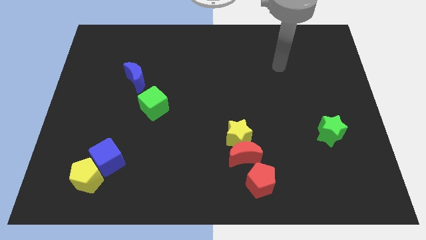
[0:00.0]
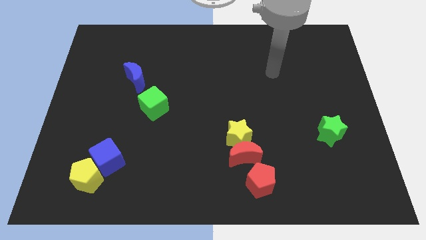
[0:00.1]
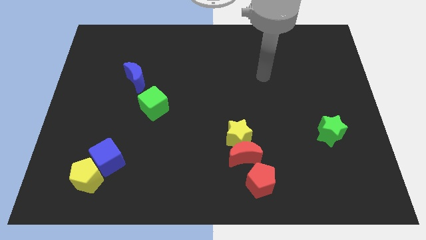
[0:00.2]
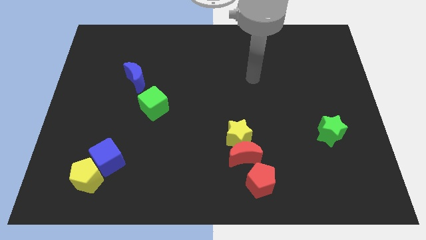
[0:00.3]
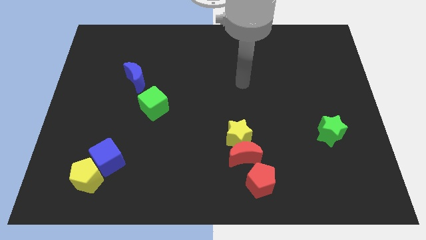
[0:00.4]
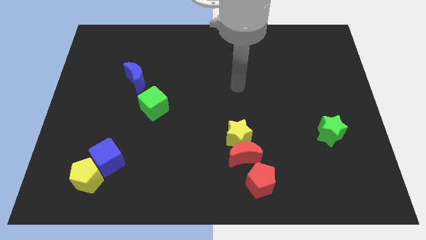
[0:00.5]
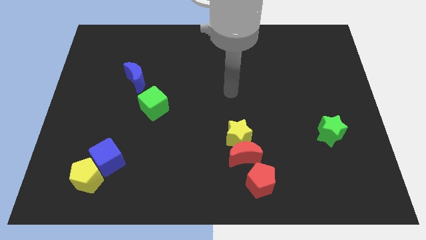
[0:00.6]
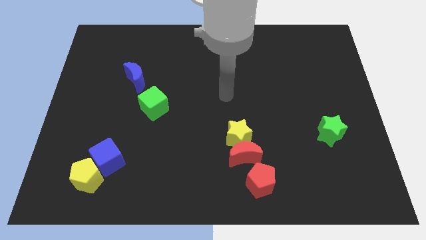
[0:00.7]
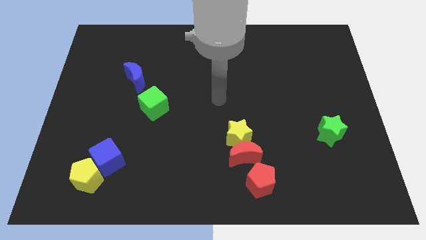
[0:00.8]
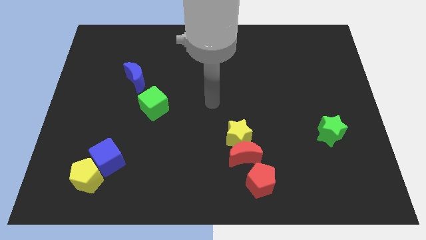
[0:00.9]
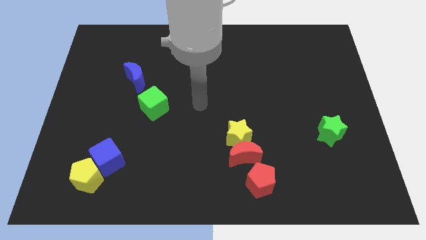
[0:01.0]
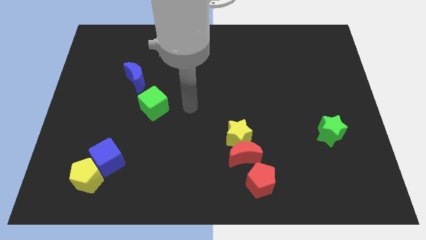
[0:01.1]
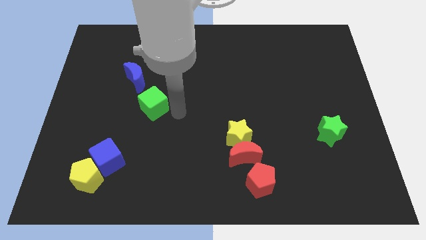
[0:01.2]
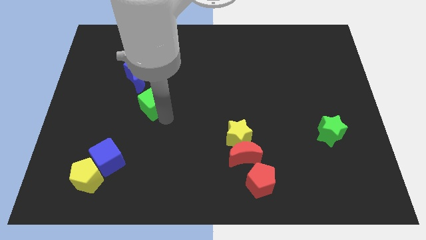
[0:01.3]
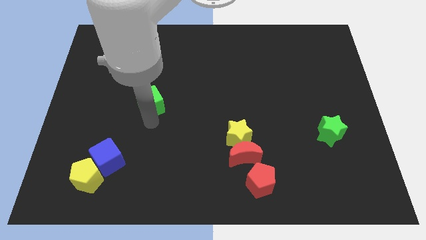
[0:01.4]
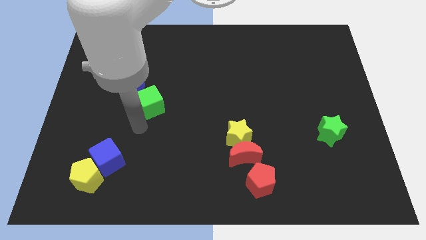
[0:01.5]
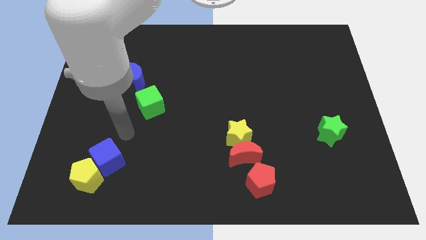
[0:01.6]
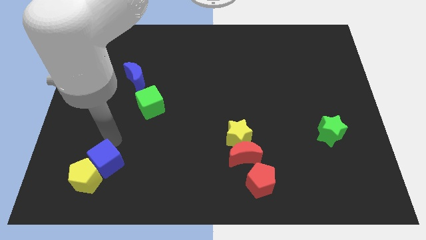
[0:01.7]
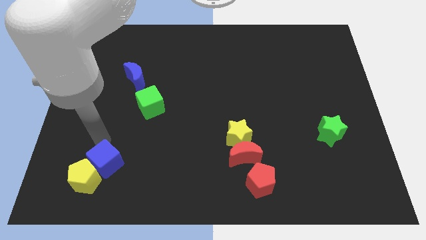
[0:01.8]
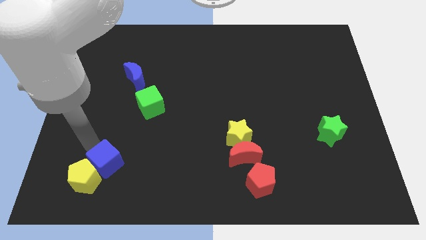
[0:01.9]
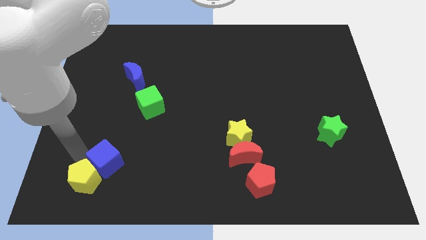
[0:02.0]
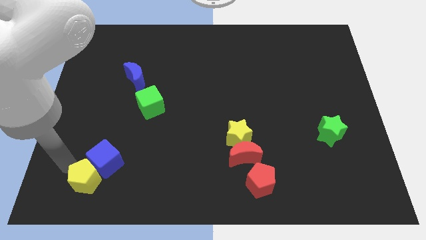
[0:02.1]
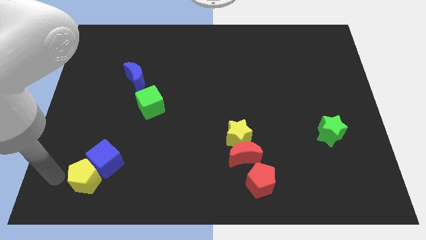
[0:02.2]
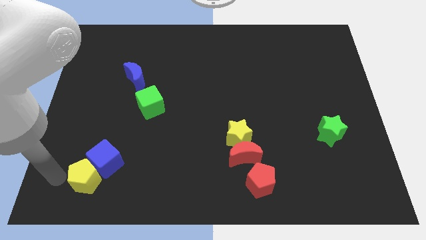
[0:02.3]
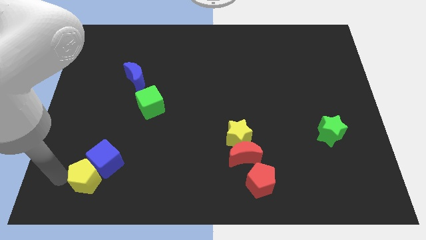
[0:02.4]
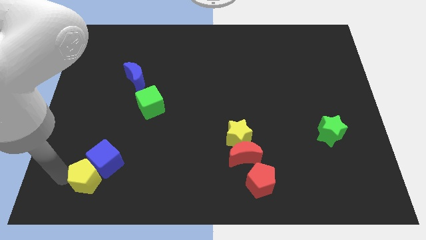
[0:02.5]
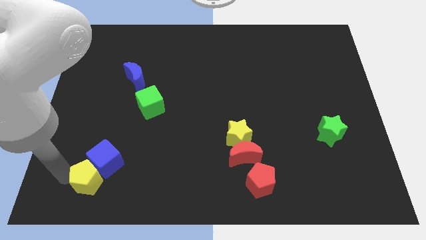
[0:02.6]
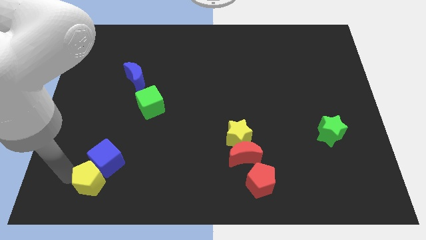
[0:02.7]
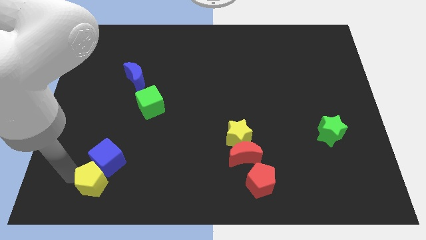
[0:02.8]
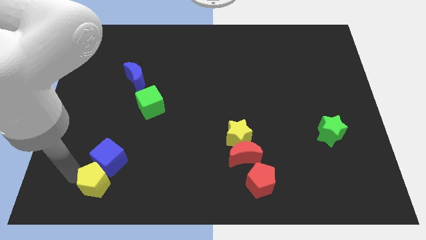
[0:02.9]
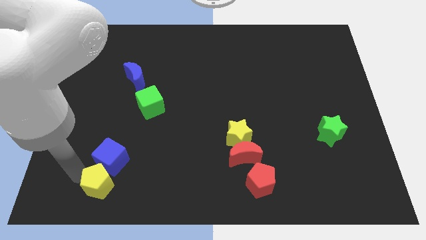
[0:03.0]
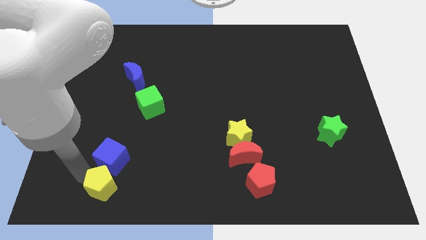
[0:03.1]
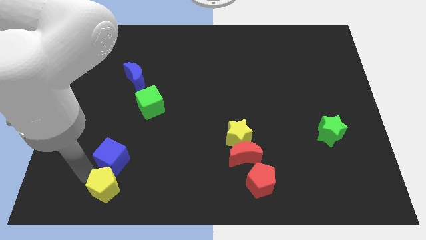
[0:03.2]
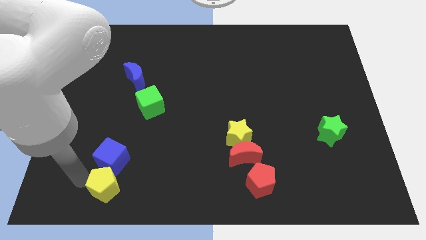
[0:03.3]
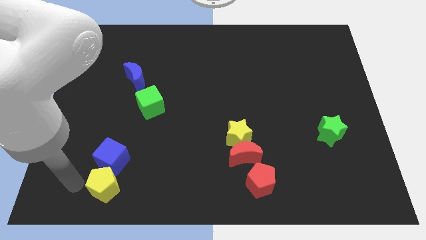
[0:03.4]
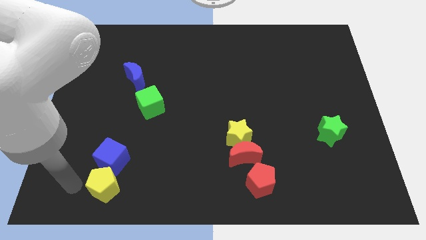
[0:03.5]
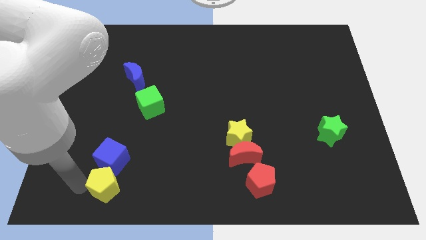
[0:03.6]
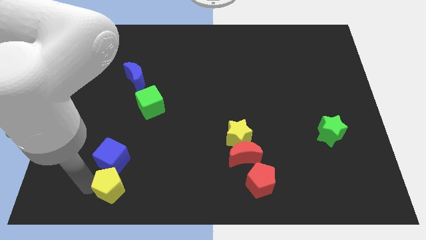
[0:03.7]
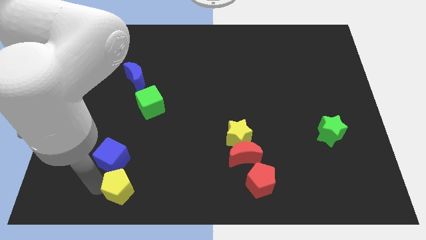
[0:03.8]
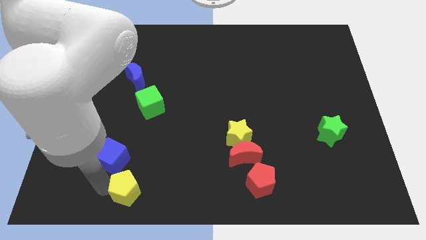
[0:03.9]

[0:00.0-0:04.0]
slightly push the yellow pentagon to the right

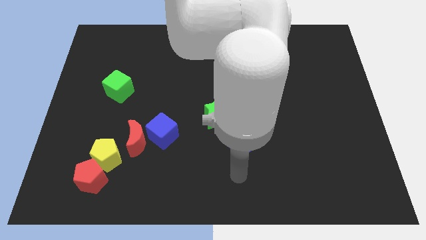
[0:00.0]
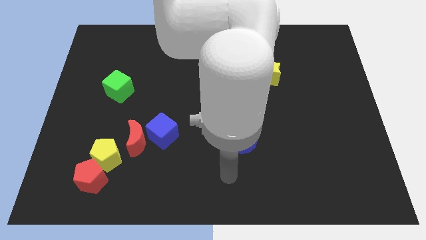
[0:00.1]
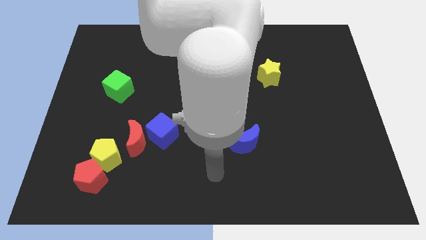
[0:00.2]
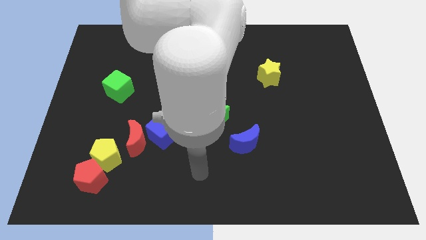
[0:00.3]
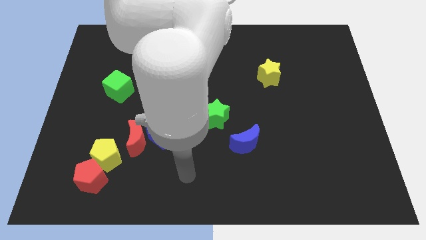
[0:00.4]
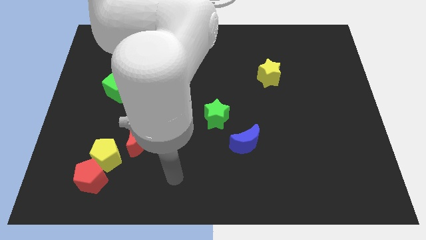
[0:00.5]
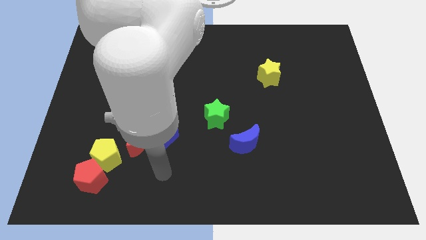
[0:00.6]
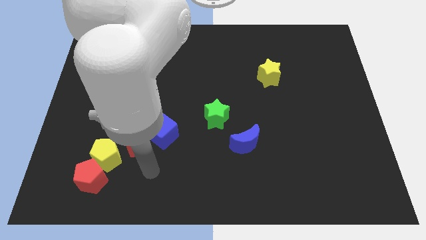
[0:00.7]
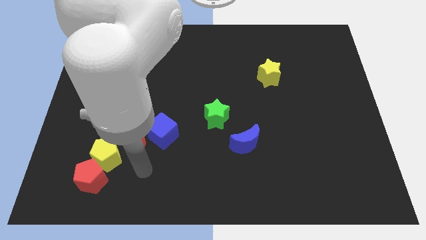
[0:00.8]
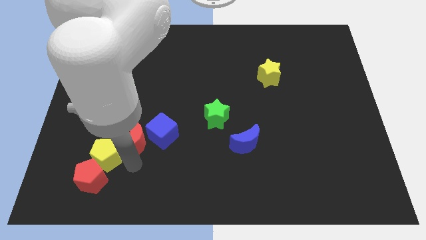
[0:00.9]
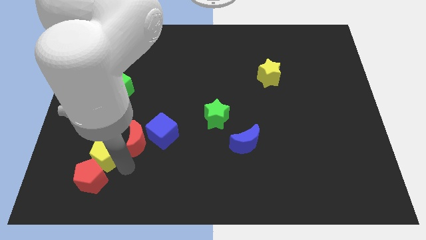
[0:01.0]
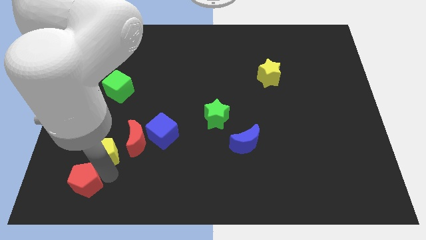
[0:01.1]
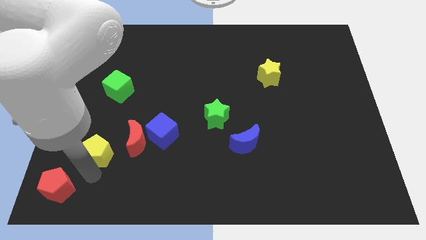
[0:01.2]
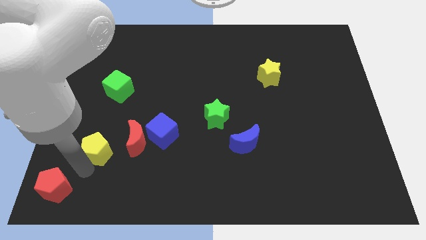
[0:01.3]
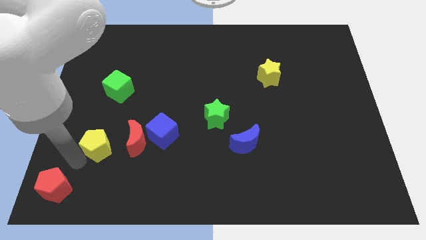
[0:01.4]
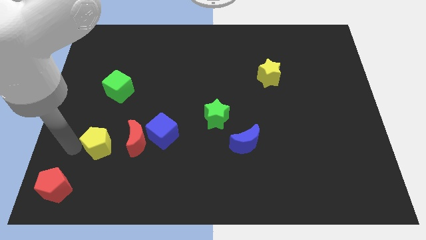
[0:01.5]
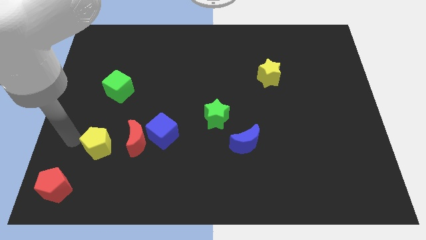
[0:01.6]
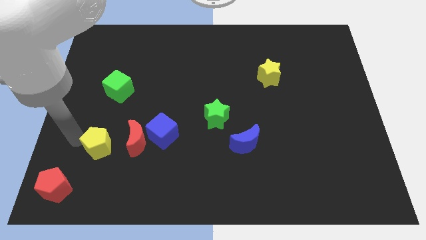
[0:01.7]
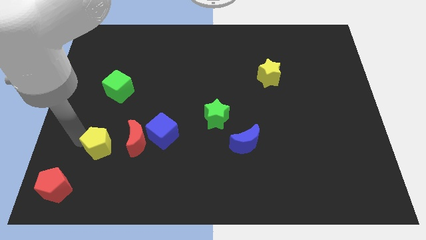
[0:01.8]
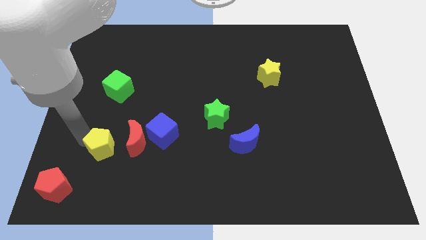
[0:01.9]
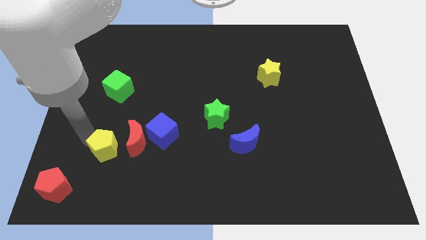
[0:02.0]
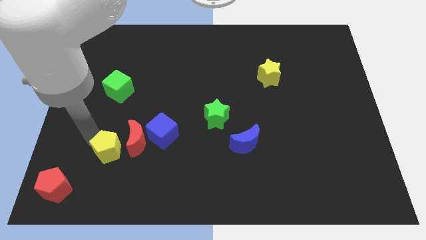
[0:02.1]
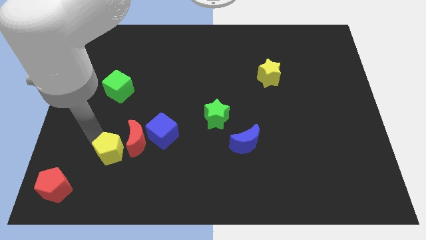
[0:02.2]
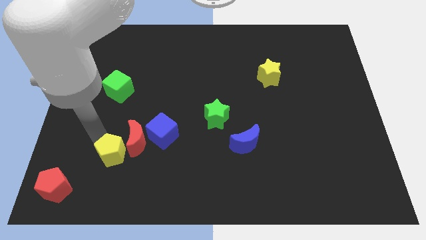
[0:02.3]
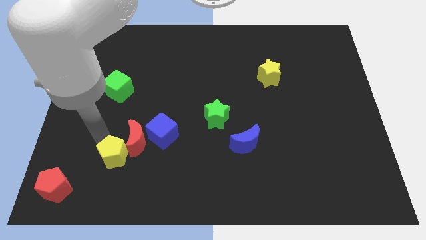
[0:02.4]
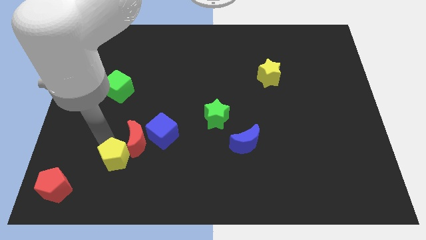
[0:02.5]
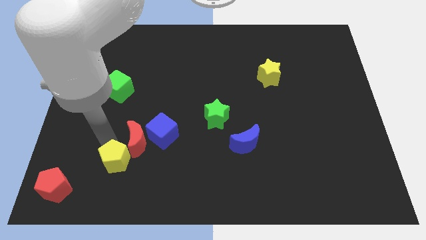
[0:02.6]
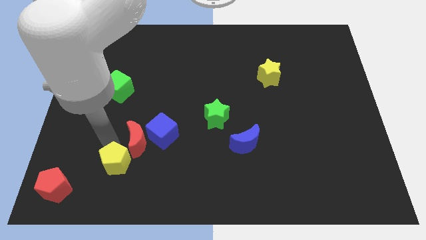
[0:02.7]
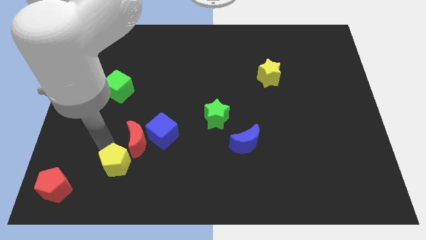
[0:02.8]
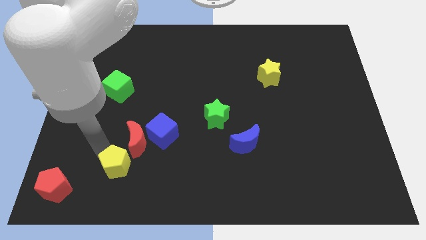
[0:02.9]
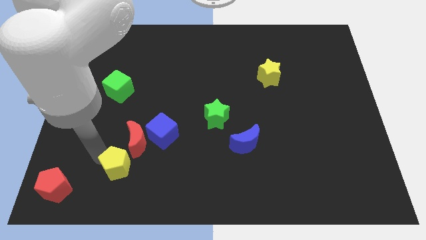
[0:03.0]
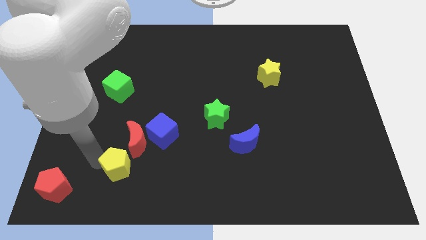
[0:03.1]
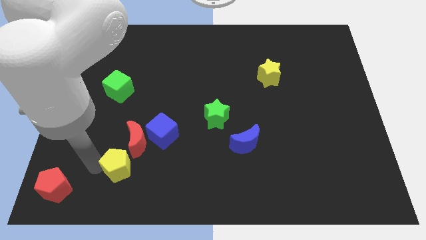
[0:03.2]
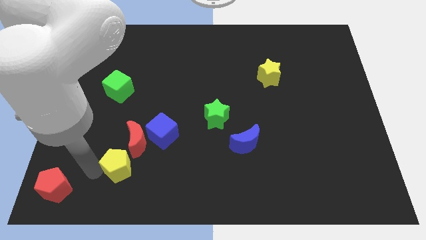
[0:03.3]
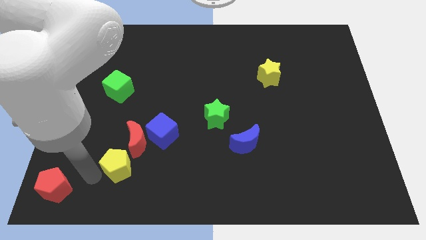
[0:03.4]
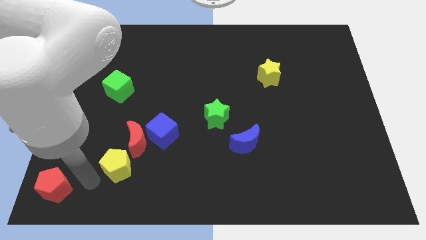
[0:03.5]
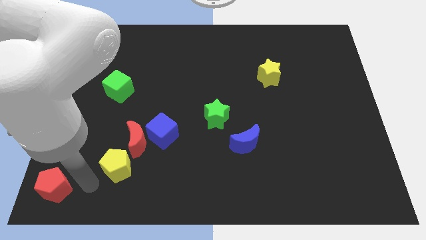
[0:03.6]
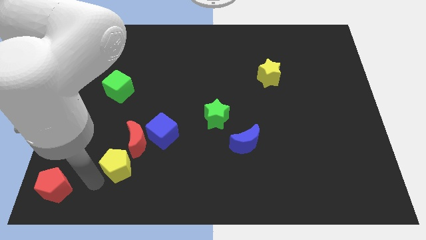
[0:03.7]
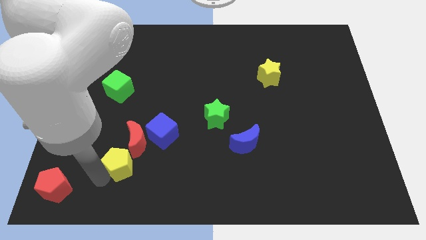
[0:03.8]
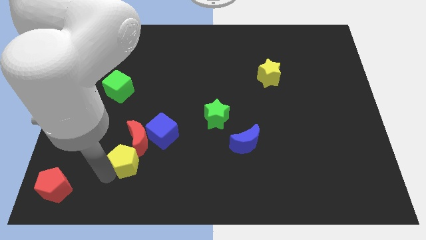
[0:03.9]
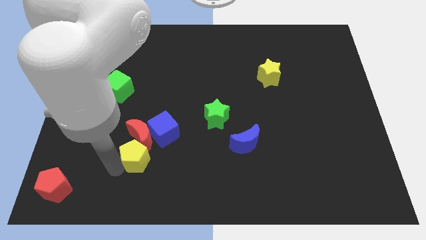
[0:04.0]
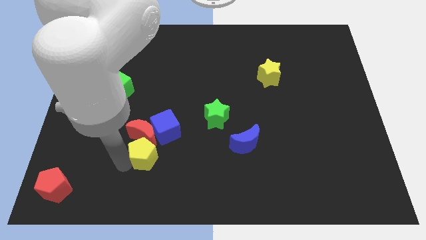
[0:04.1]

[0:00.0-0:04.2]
move the yellow pentagon right a little bit

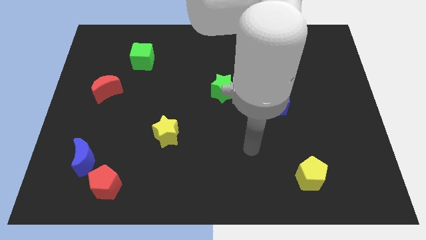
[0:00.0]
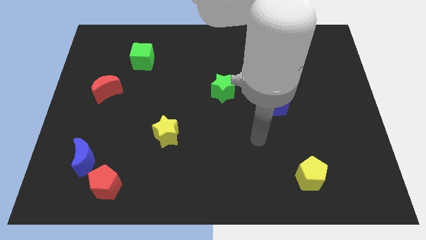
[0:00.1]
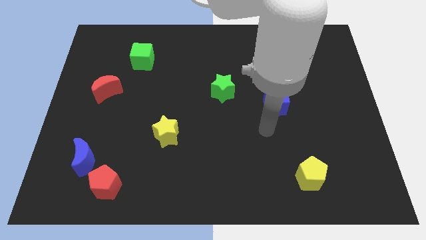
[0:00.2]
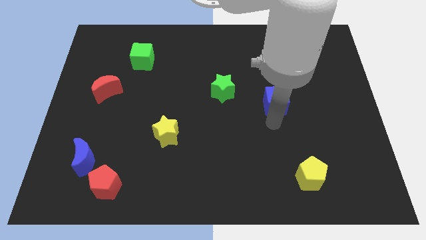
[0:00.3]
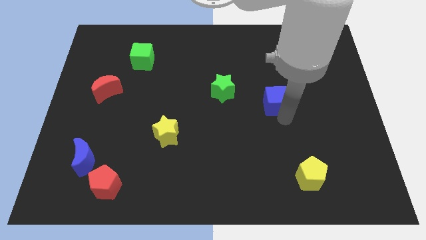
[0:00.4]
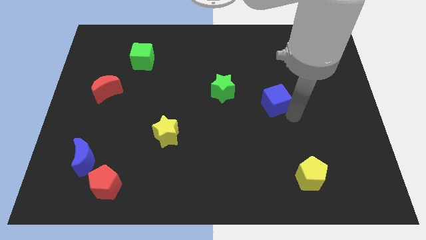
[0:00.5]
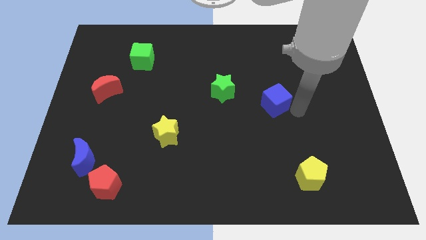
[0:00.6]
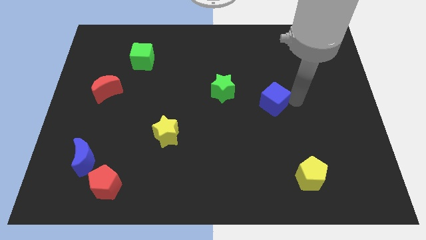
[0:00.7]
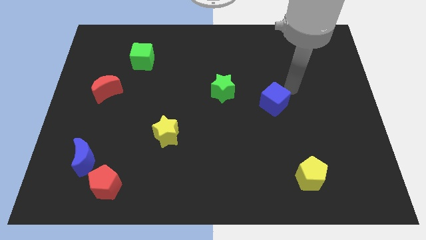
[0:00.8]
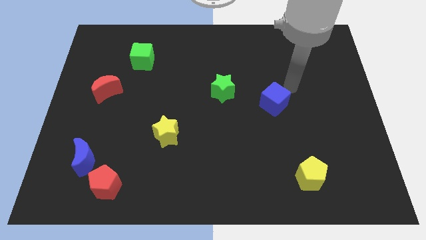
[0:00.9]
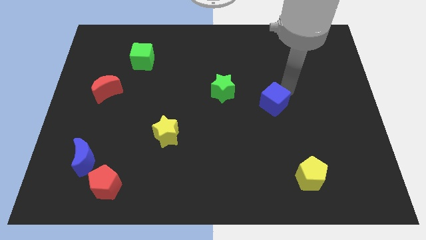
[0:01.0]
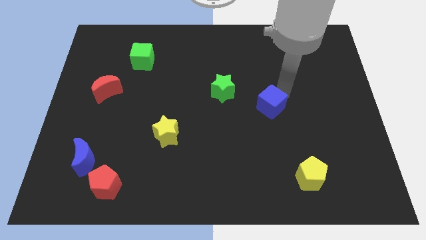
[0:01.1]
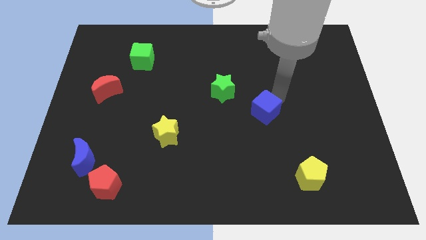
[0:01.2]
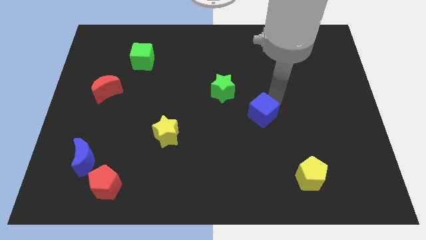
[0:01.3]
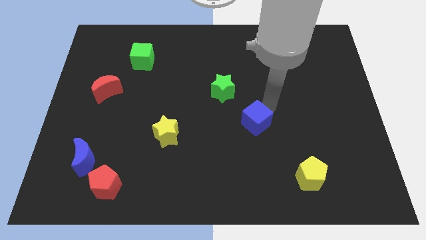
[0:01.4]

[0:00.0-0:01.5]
push the blue cube diagonally downwards and to the left somewhat
